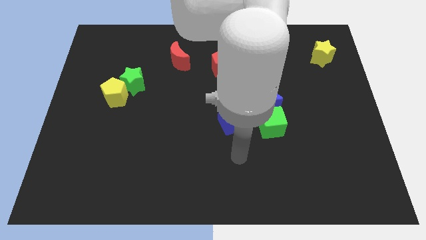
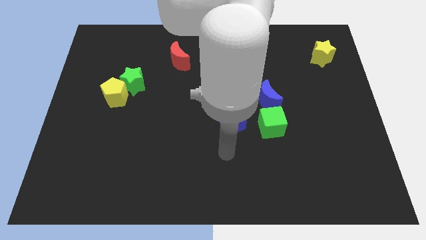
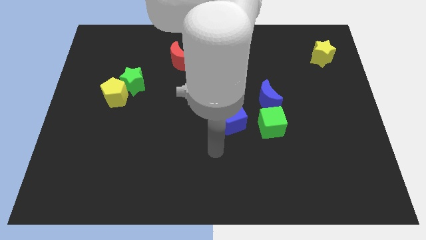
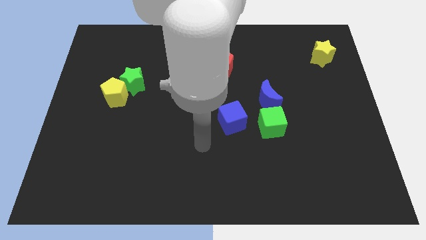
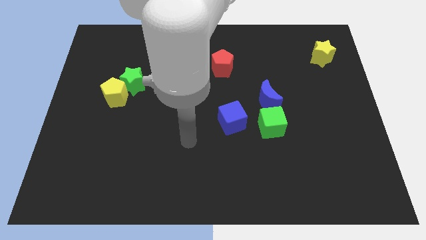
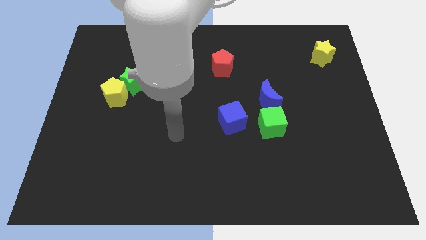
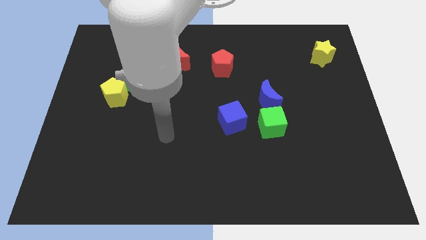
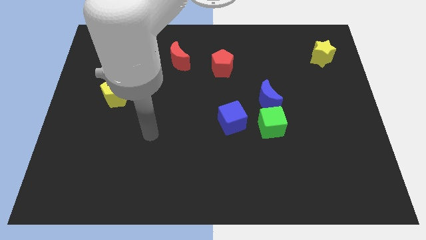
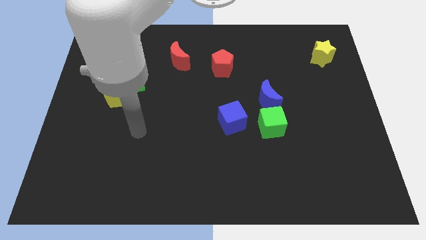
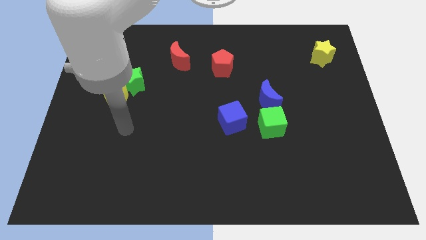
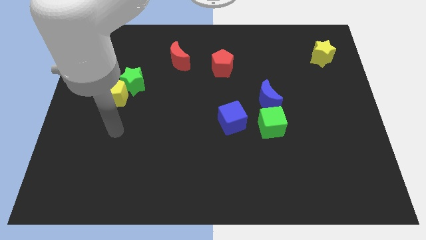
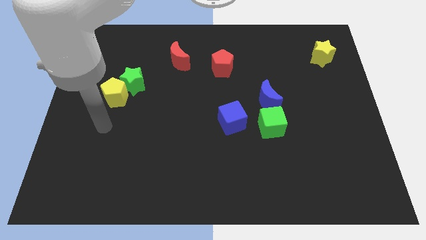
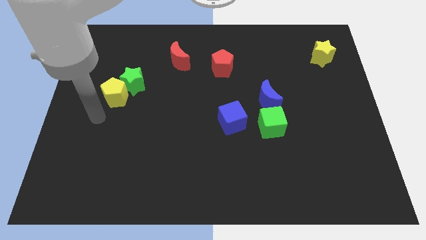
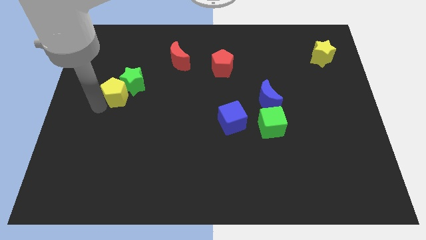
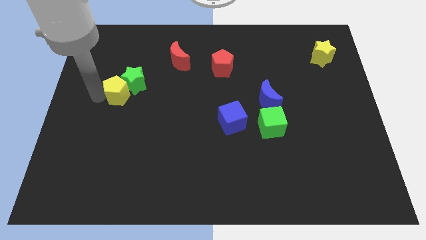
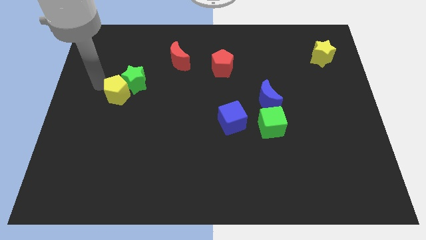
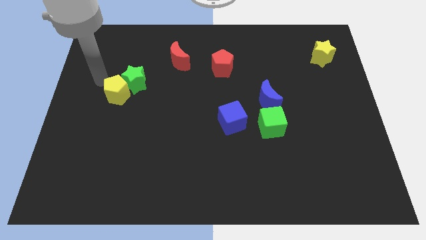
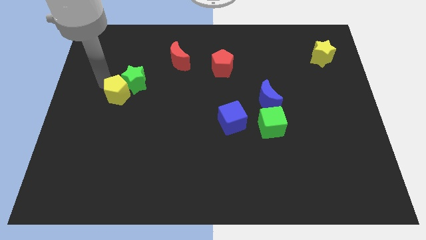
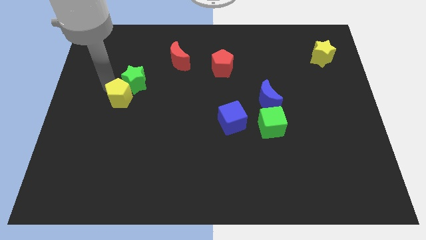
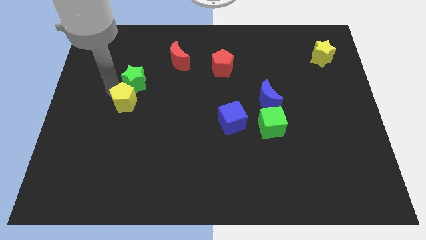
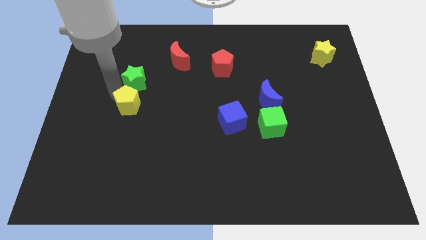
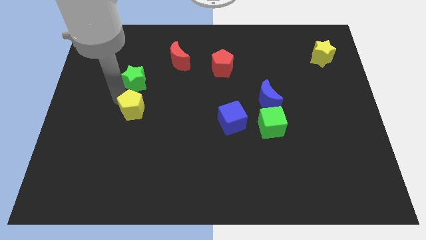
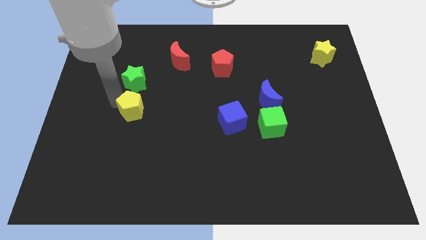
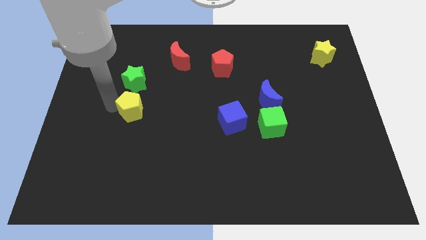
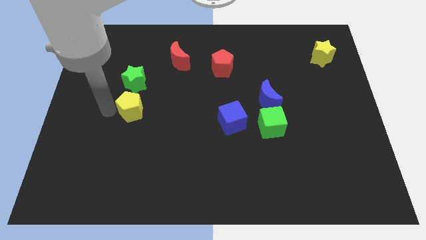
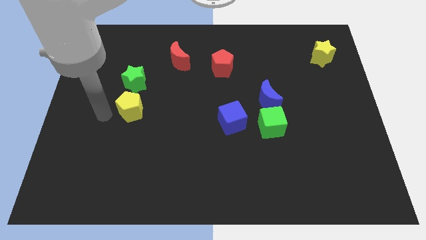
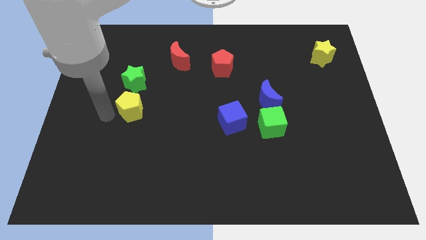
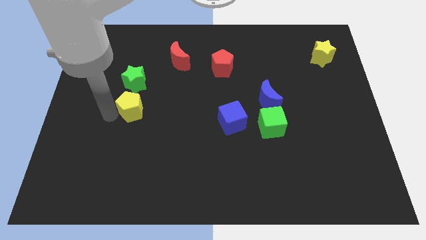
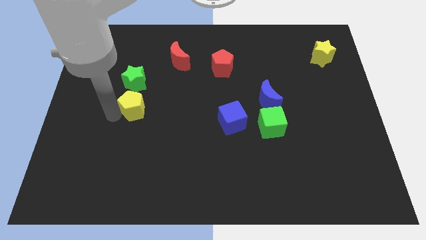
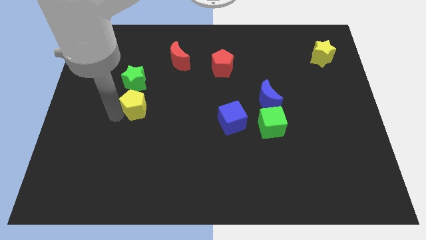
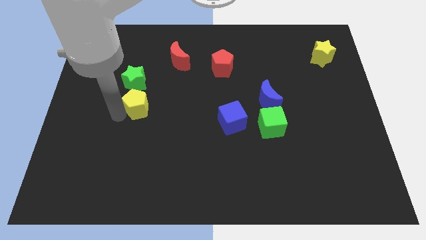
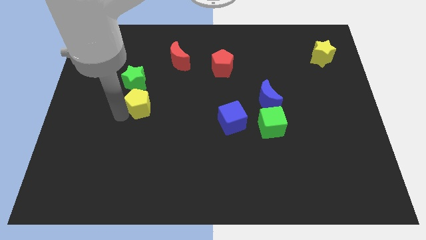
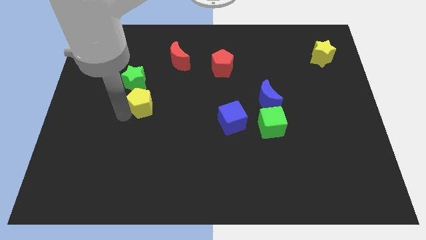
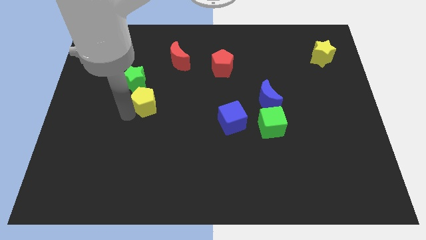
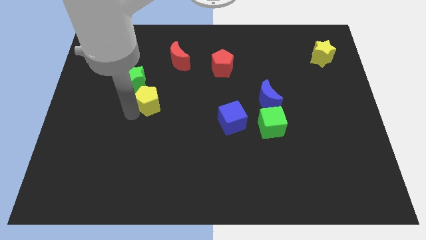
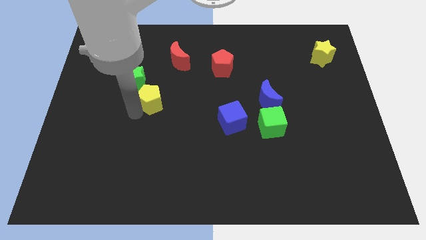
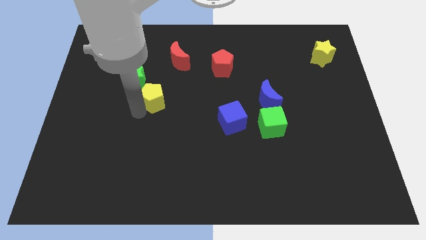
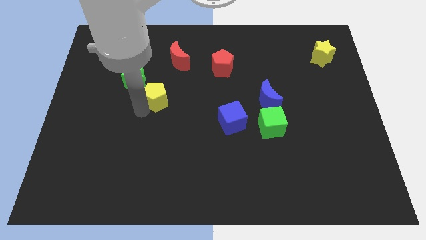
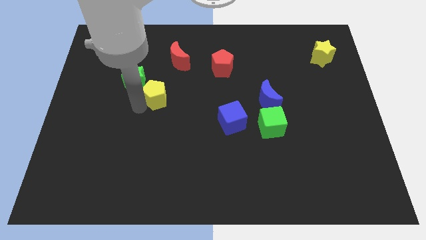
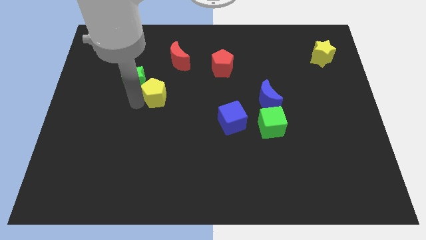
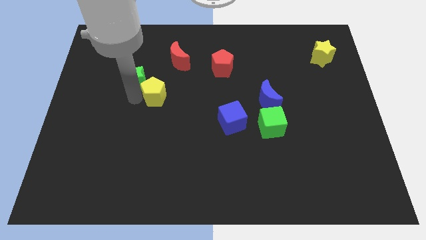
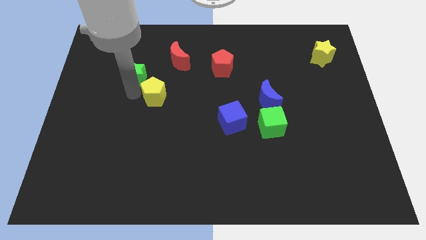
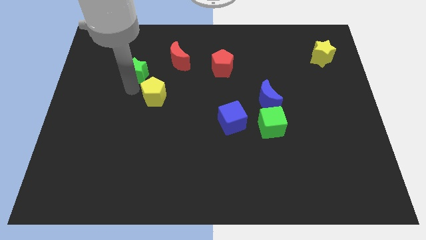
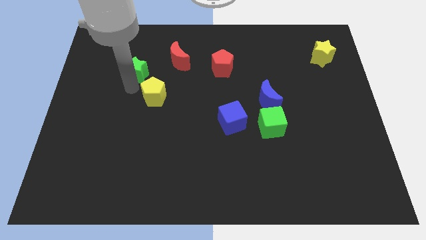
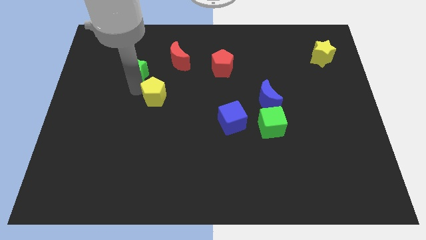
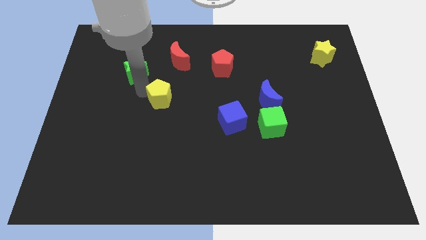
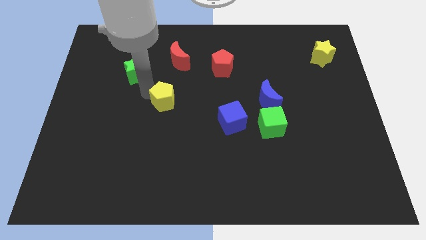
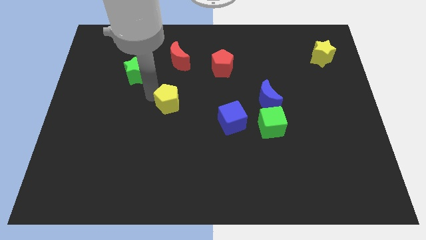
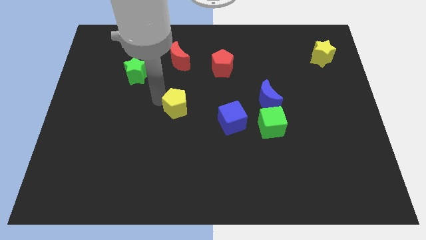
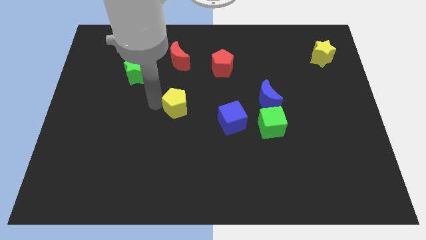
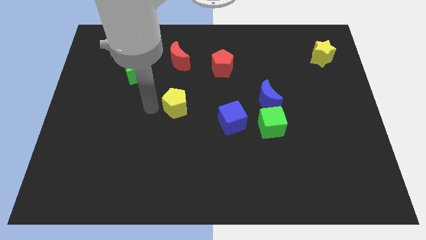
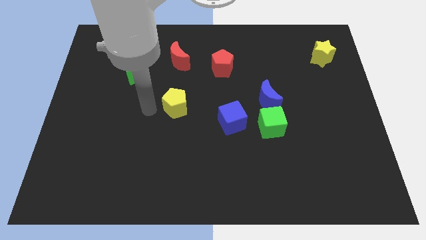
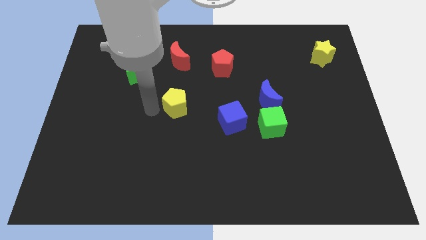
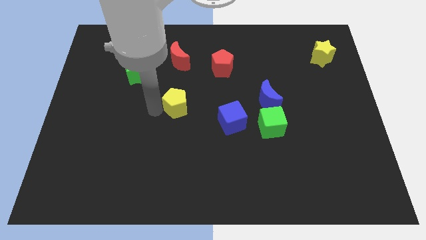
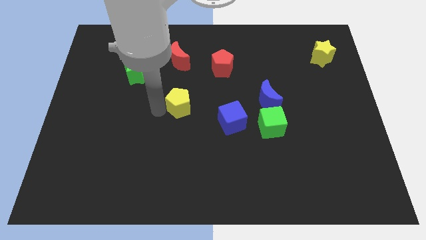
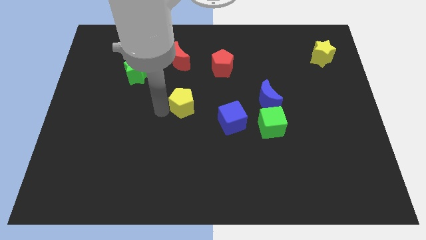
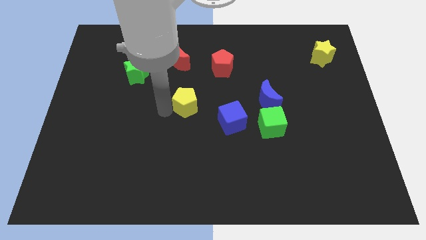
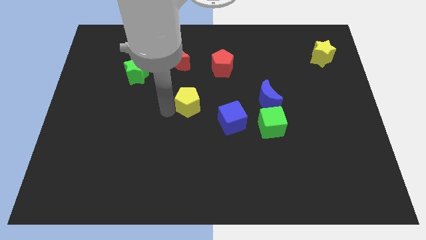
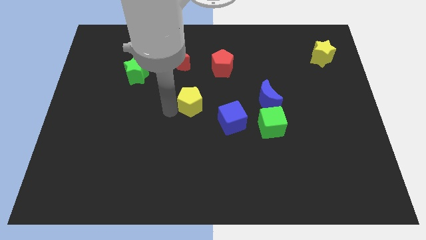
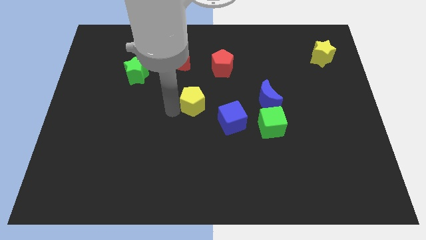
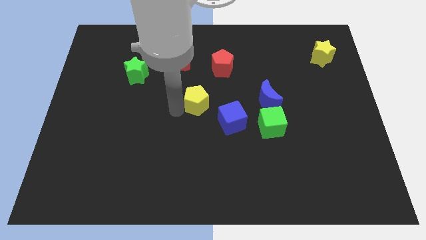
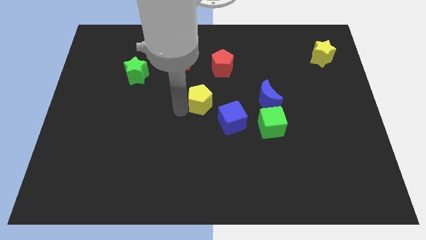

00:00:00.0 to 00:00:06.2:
move the yellow pentagon right

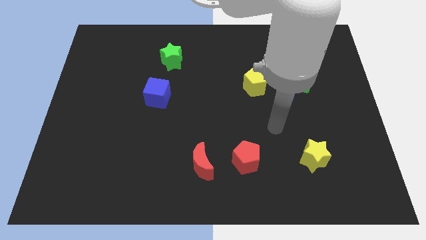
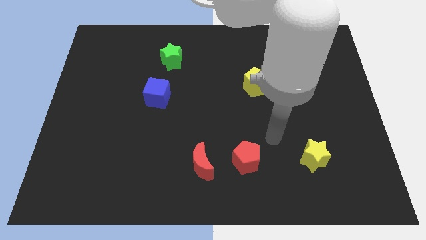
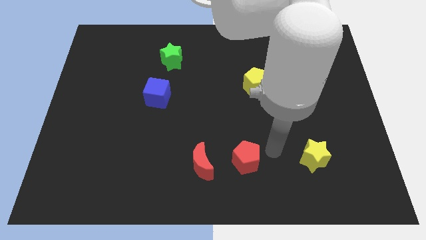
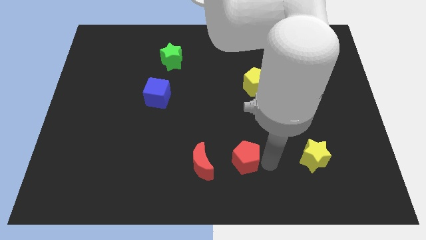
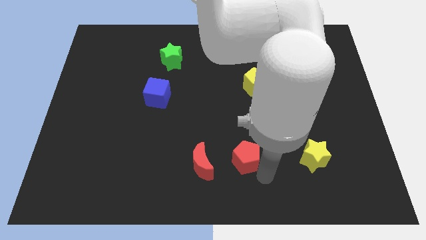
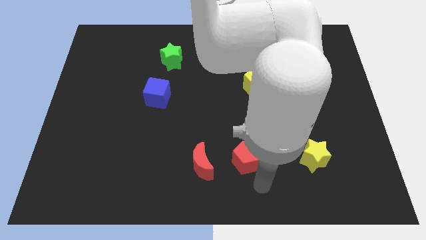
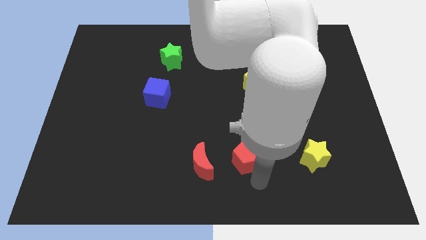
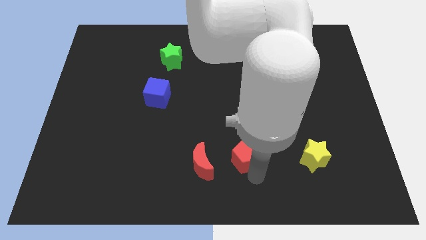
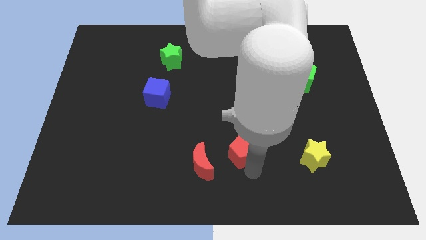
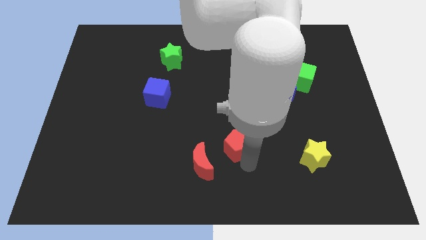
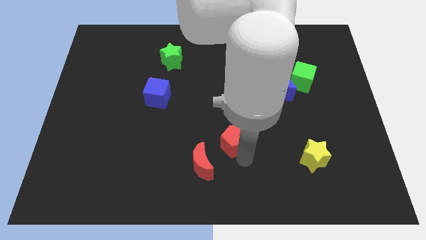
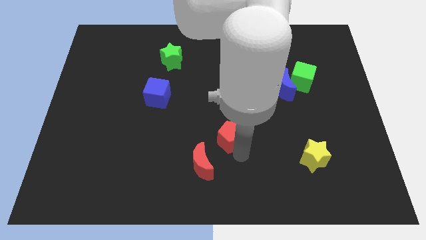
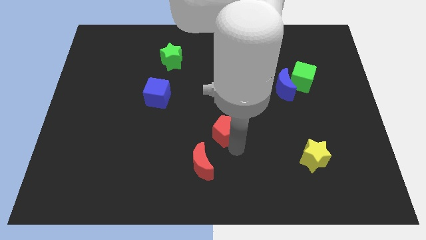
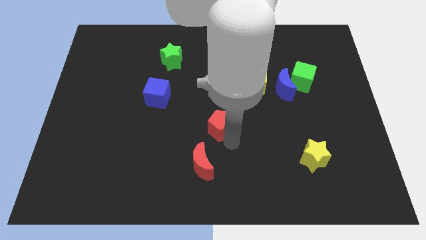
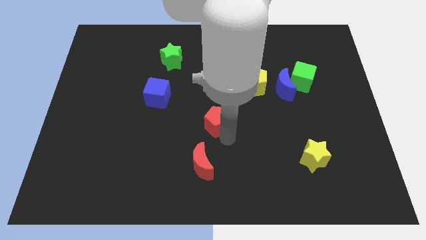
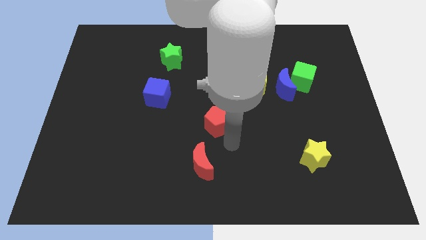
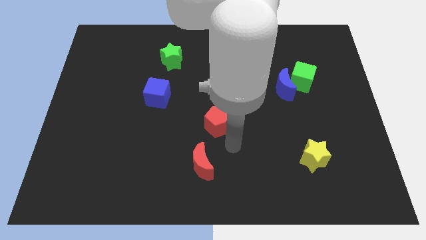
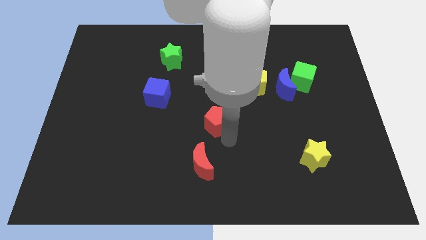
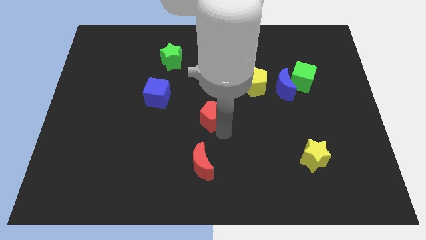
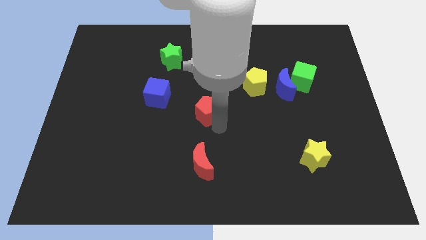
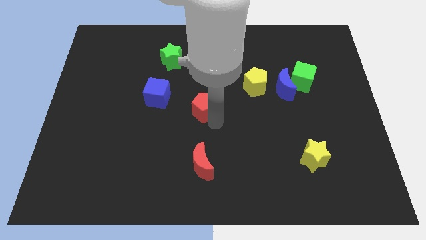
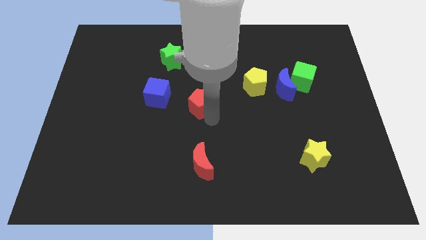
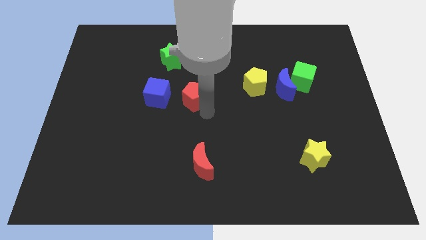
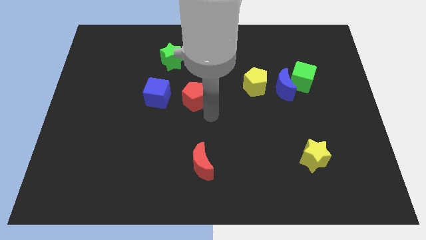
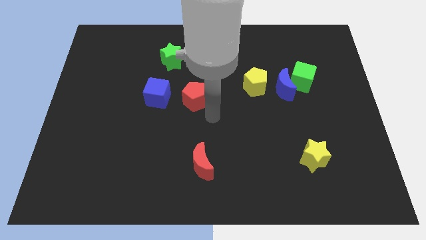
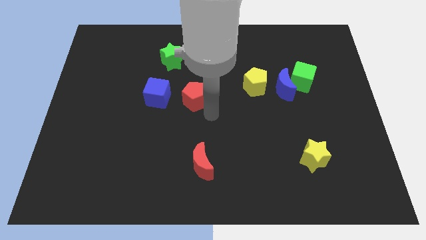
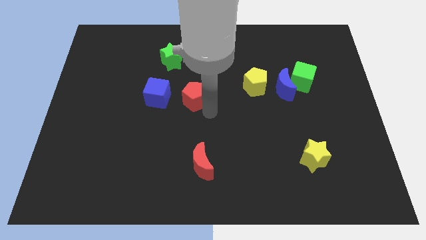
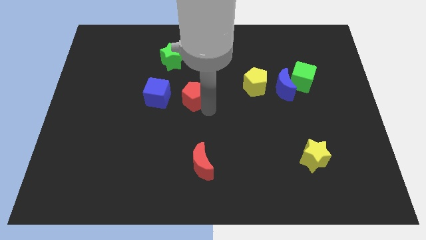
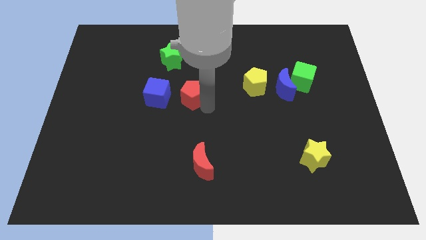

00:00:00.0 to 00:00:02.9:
push the red pentagon upwards and left diagonally
